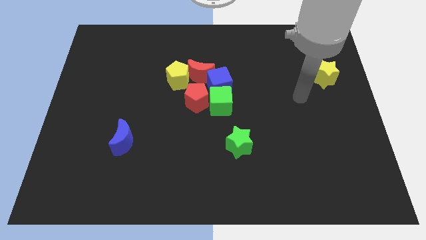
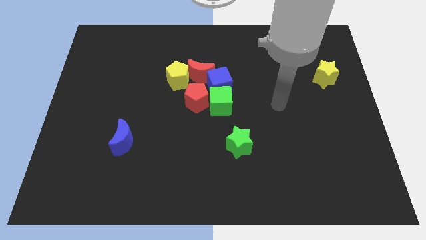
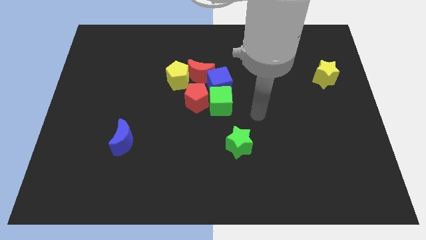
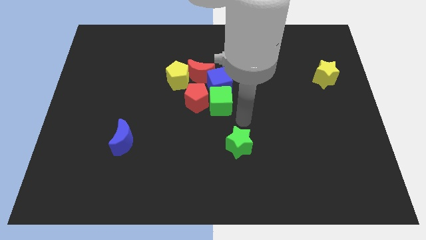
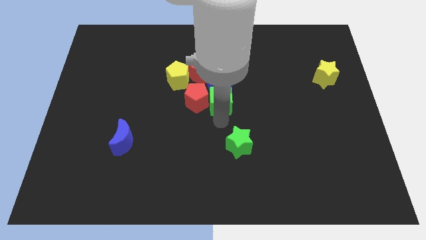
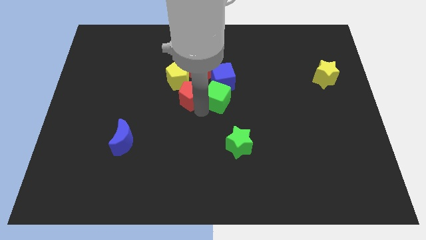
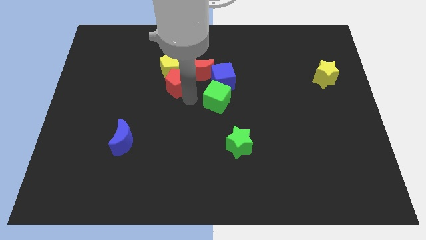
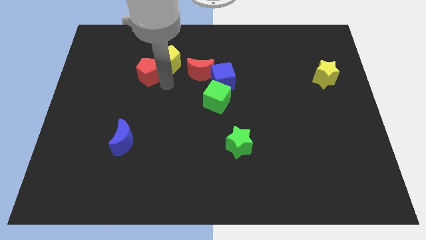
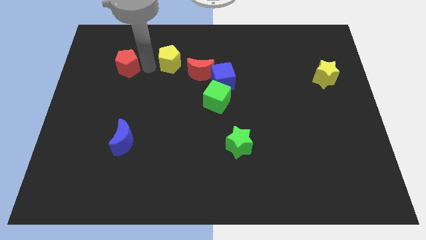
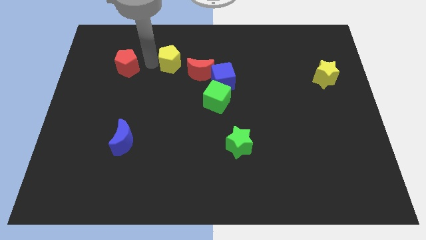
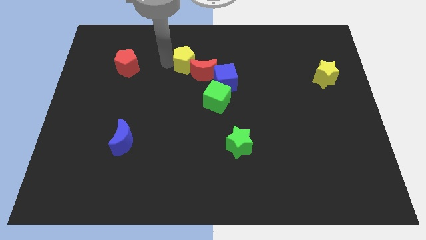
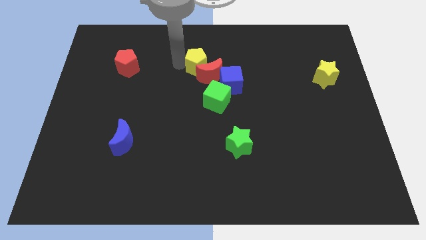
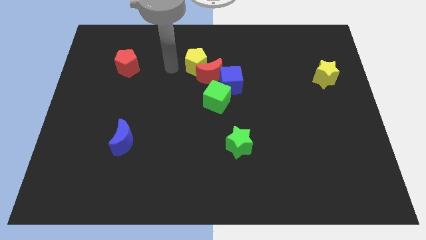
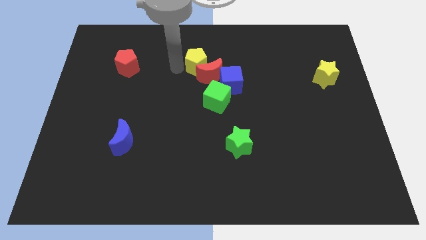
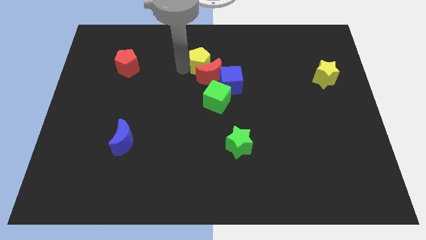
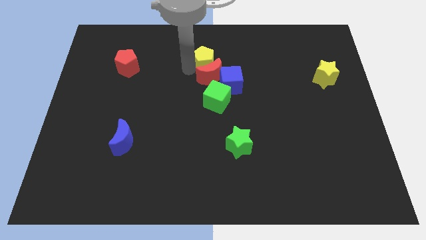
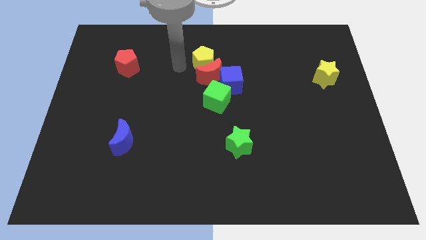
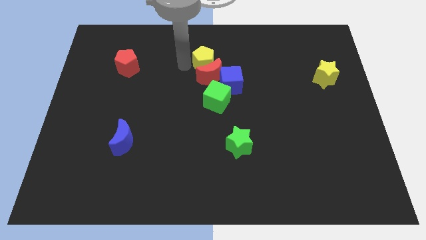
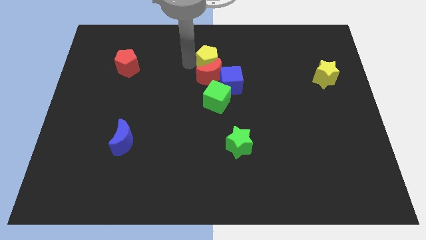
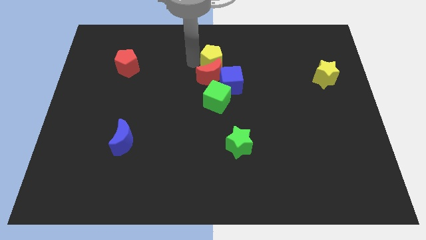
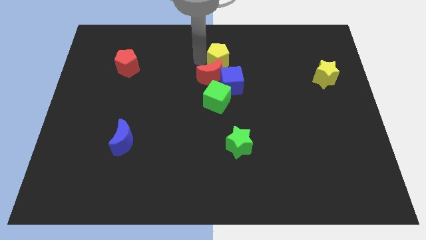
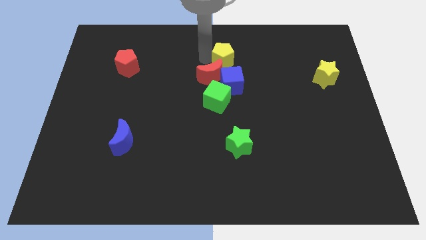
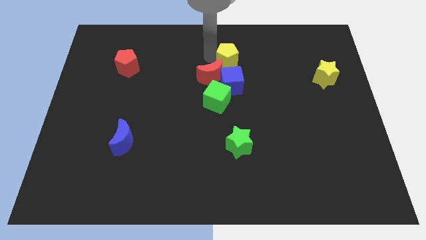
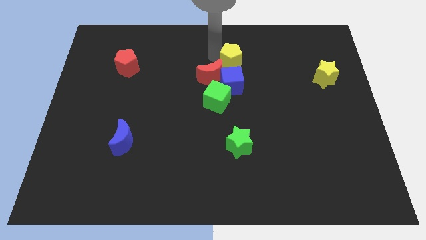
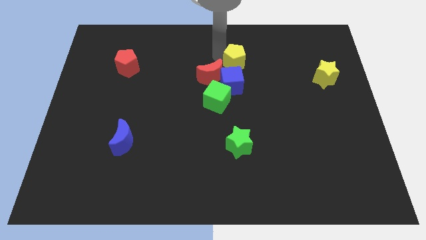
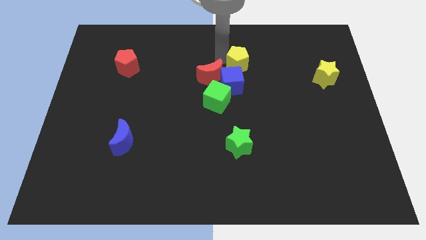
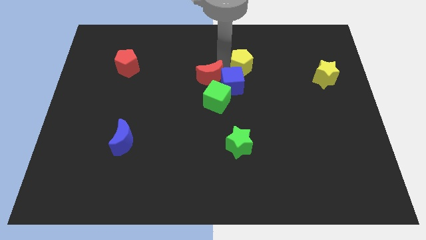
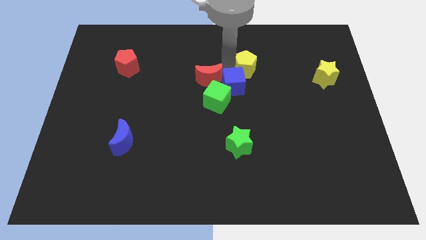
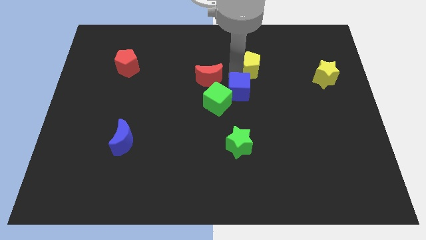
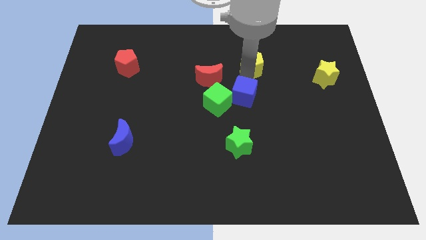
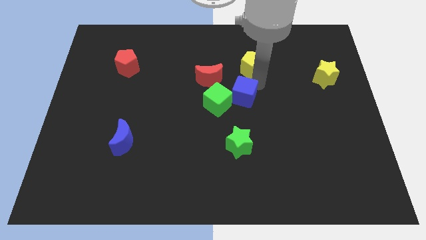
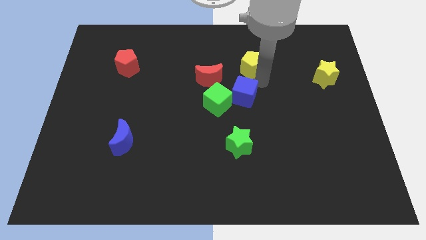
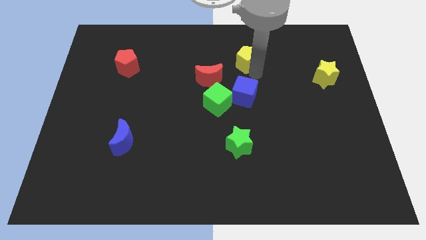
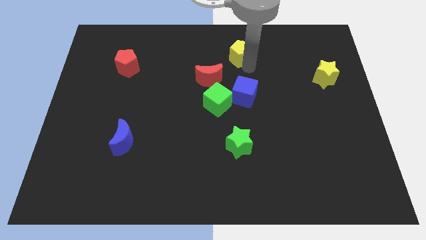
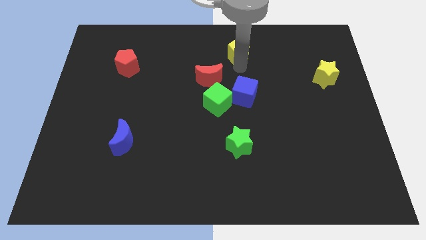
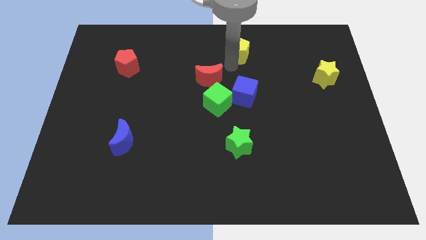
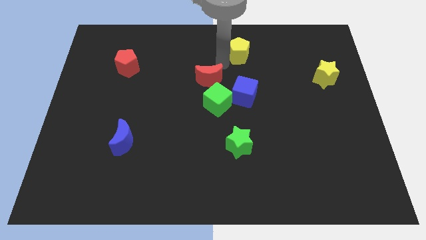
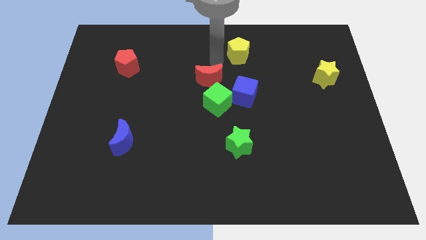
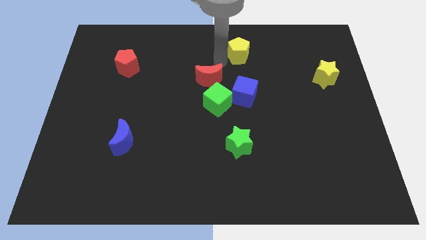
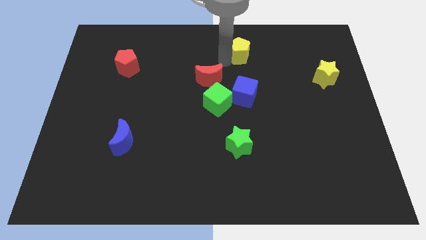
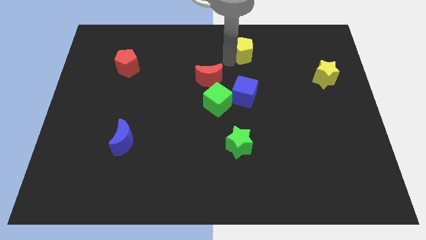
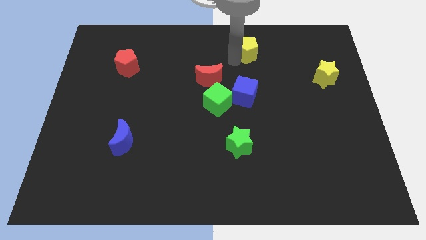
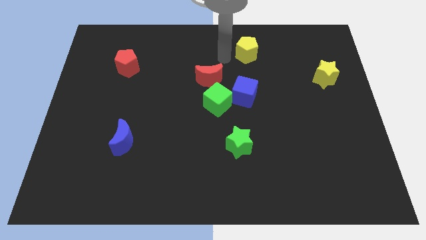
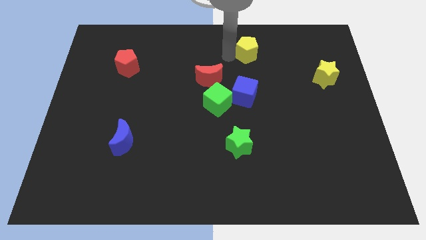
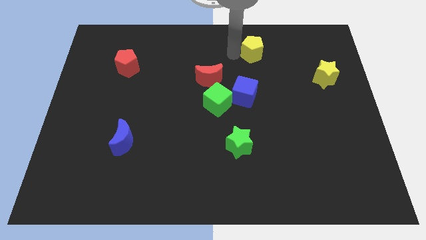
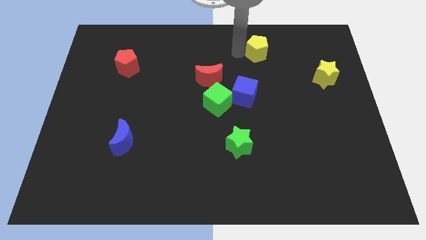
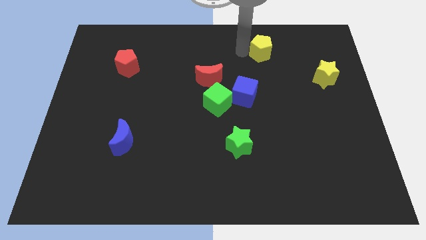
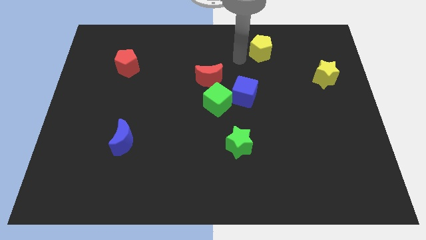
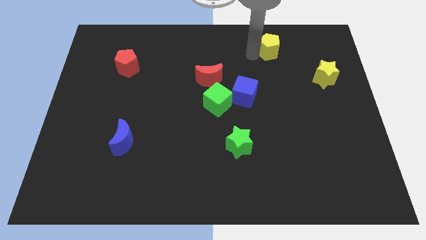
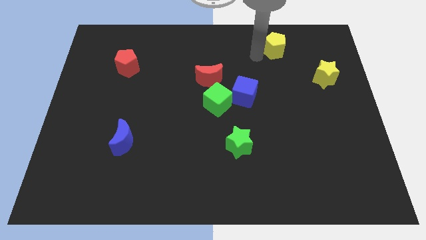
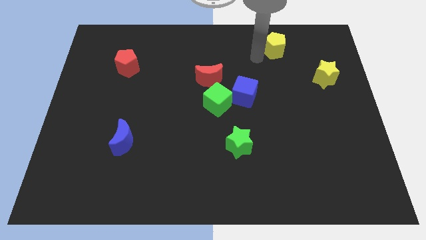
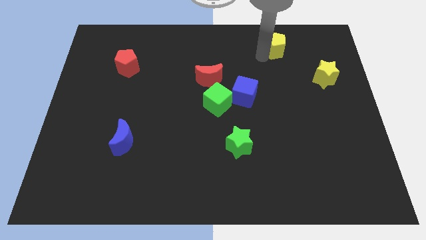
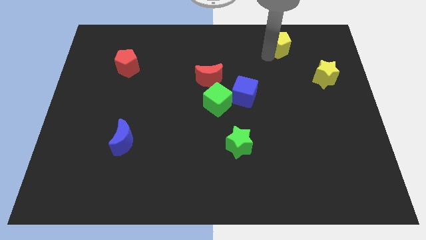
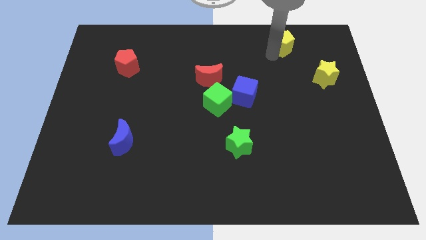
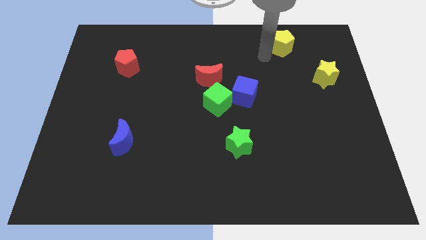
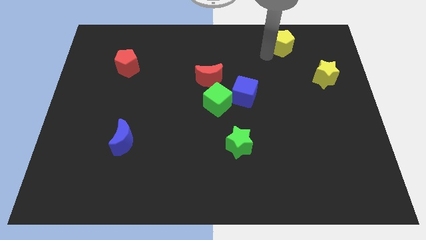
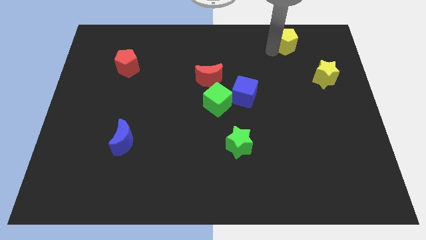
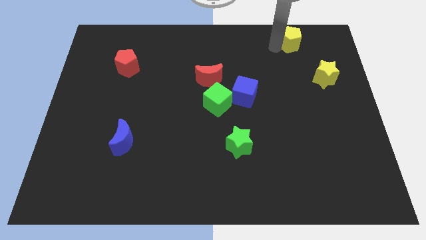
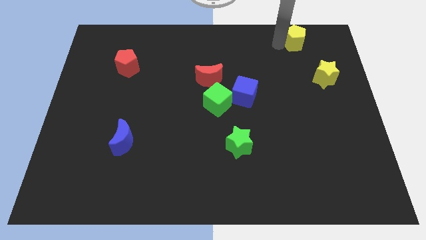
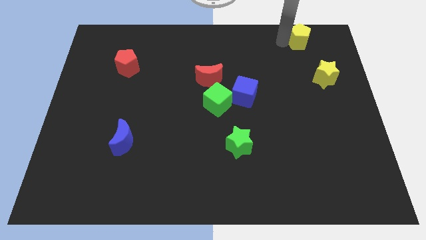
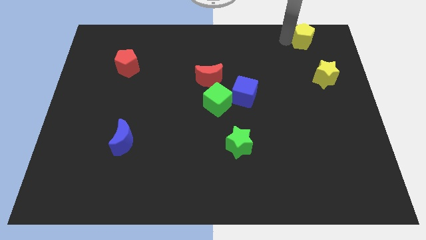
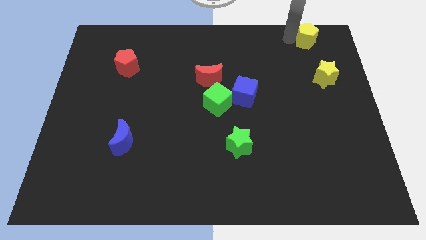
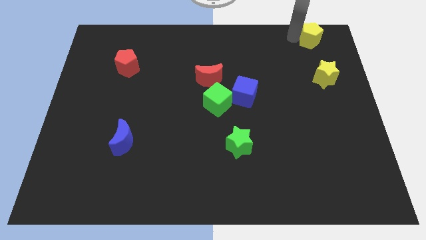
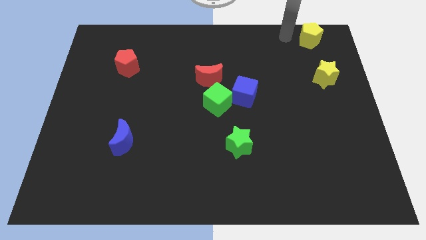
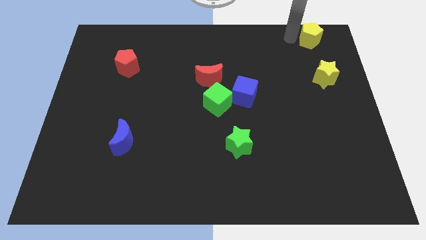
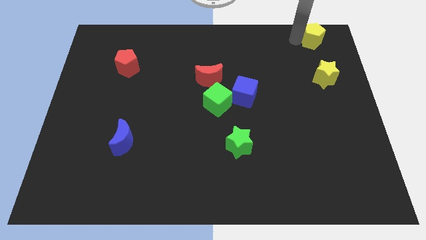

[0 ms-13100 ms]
slide the yellow pentagon to the upper right corner
